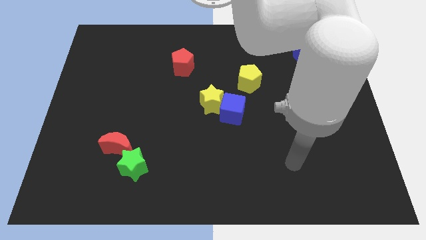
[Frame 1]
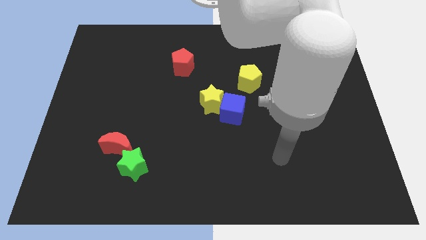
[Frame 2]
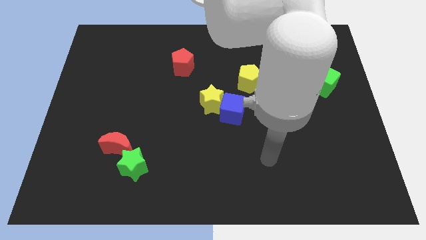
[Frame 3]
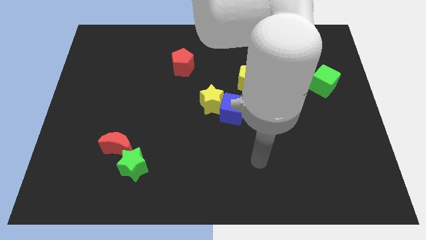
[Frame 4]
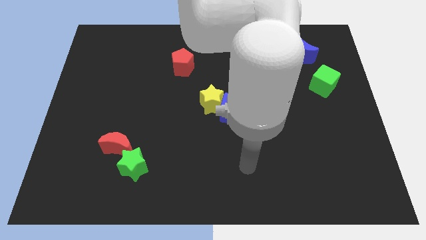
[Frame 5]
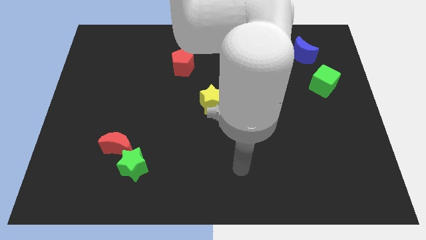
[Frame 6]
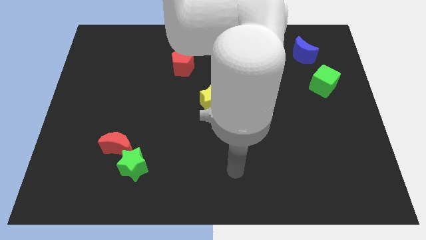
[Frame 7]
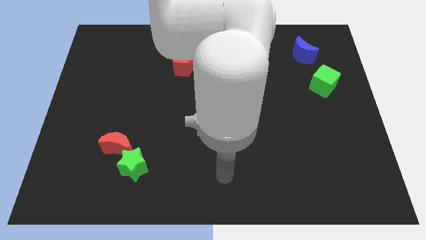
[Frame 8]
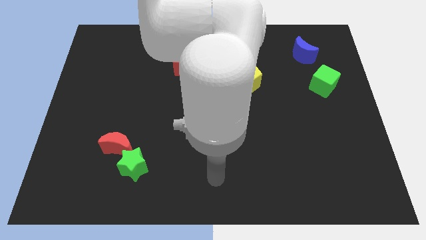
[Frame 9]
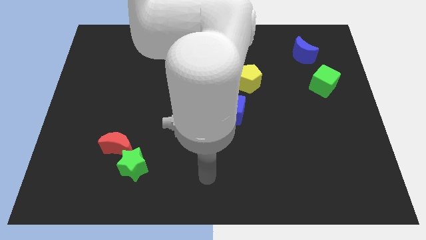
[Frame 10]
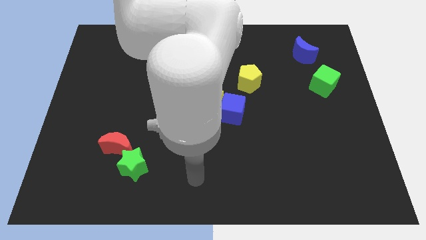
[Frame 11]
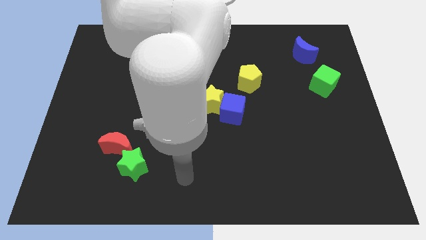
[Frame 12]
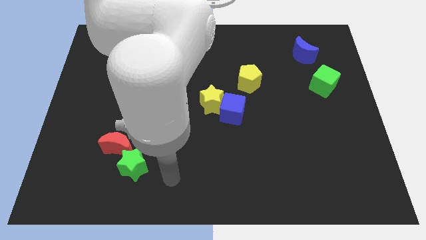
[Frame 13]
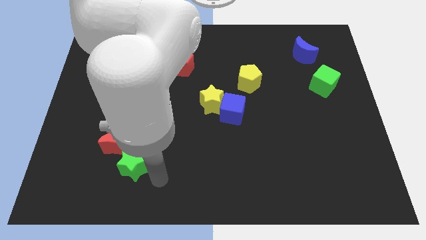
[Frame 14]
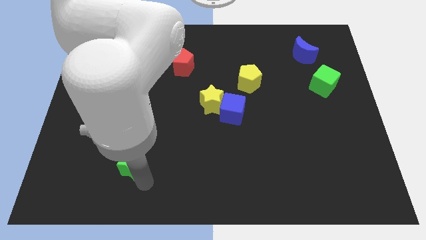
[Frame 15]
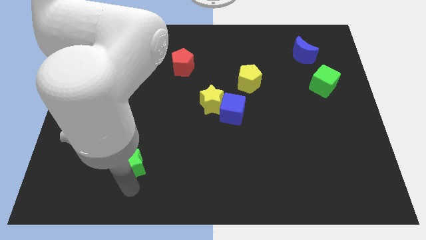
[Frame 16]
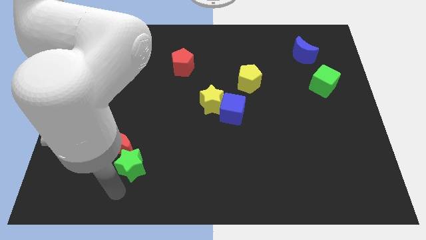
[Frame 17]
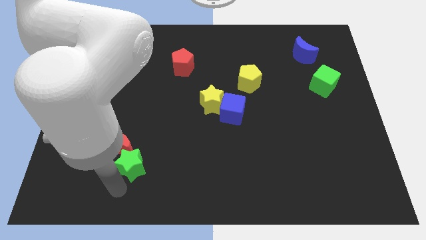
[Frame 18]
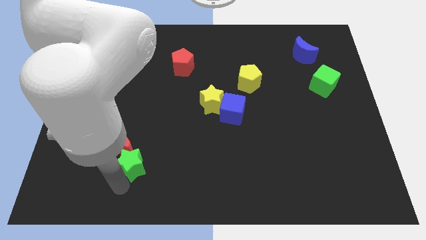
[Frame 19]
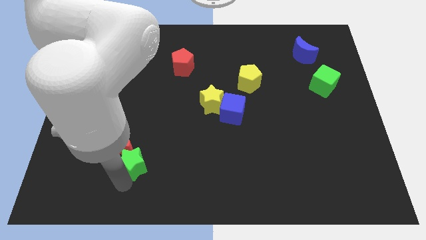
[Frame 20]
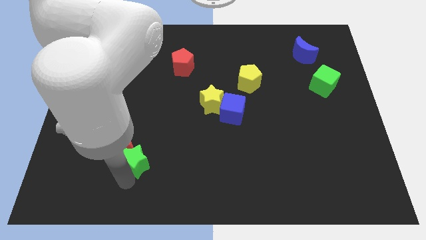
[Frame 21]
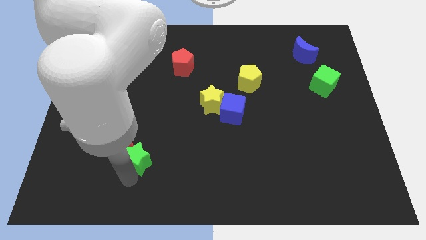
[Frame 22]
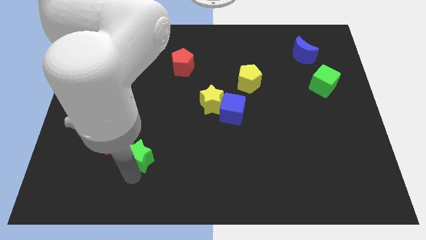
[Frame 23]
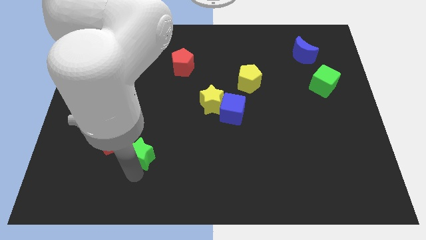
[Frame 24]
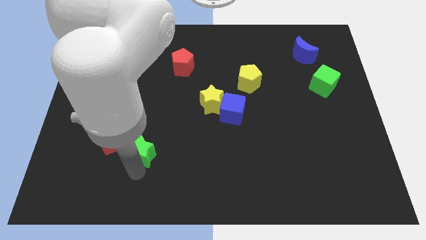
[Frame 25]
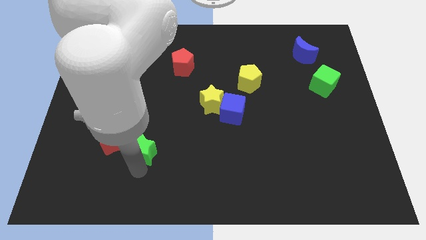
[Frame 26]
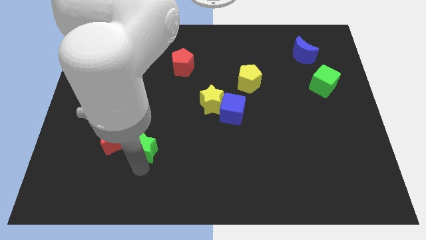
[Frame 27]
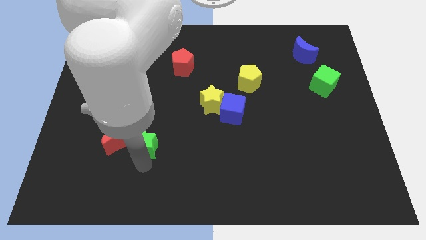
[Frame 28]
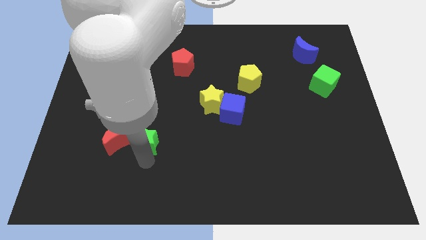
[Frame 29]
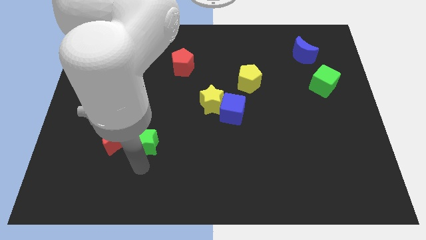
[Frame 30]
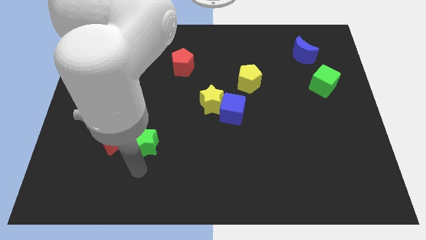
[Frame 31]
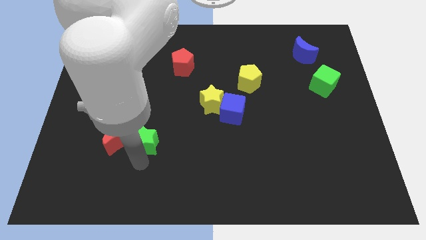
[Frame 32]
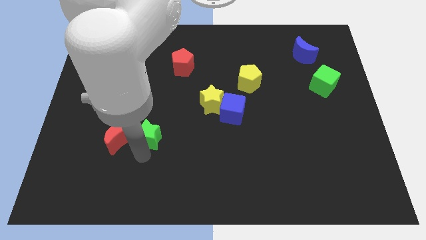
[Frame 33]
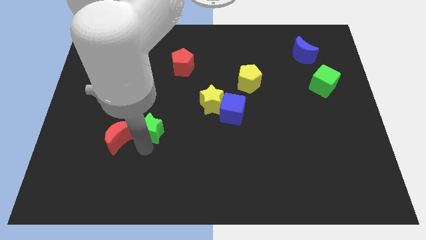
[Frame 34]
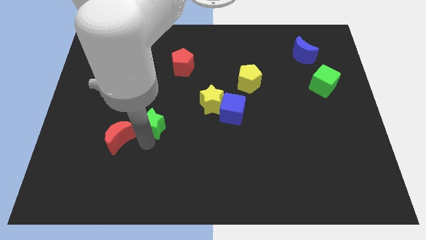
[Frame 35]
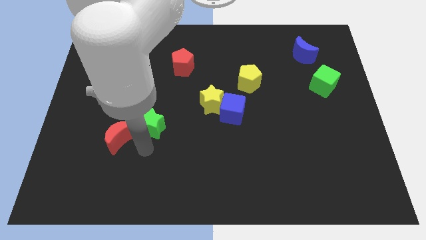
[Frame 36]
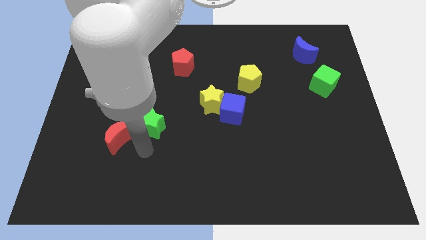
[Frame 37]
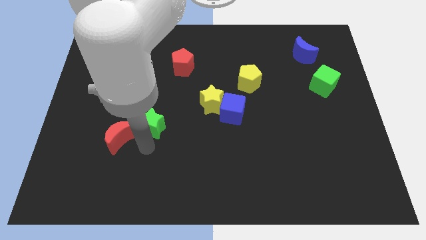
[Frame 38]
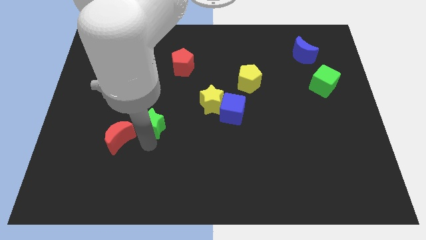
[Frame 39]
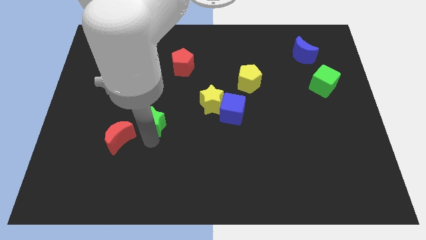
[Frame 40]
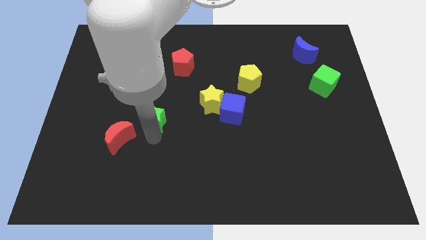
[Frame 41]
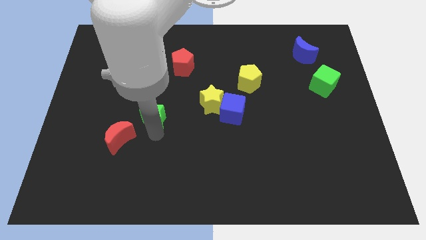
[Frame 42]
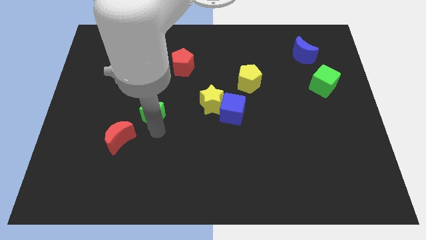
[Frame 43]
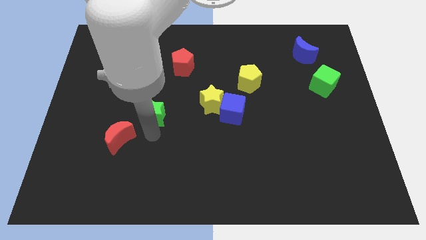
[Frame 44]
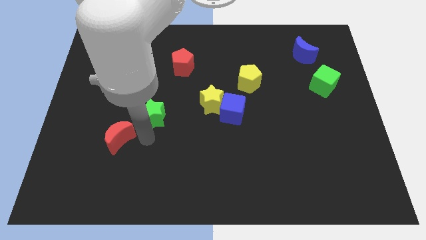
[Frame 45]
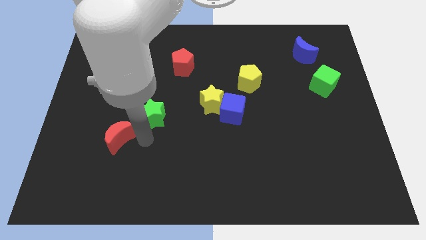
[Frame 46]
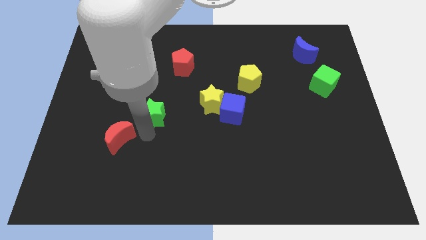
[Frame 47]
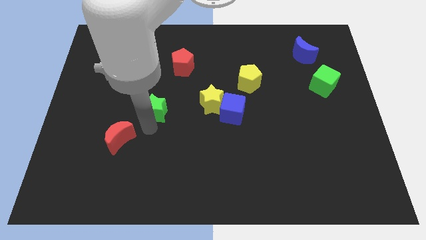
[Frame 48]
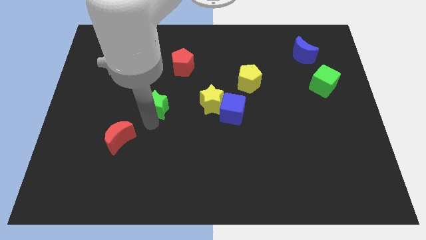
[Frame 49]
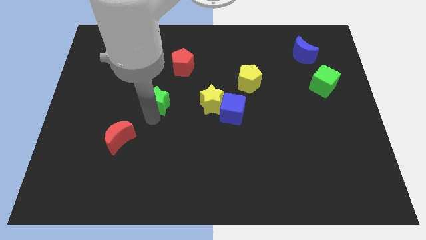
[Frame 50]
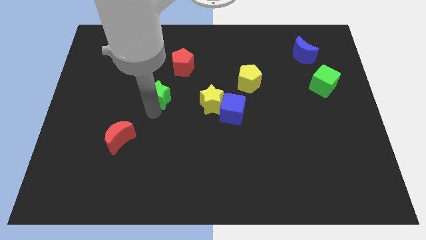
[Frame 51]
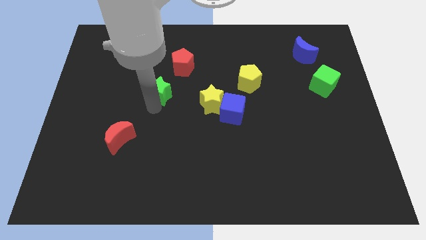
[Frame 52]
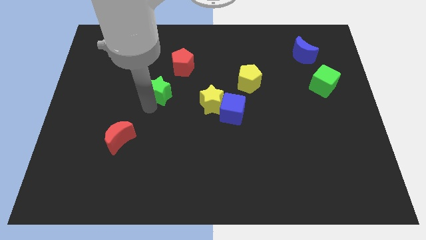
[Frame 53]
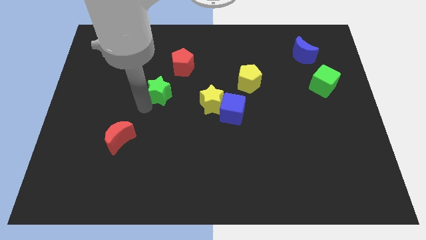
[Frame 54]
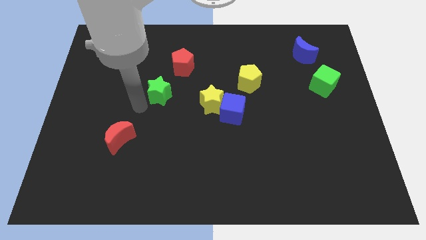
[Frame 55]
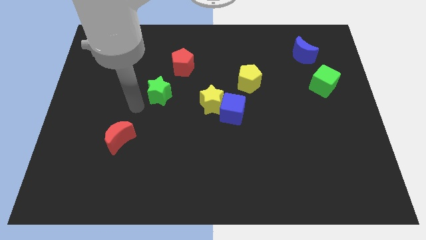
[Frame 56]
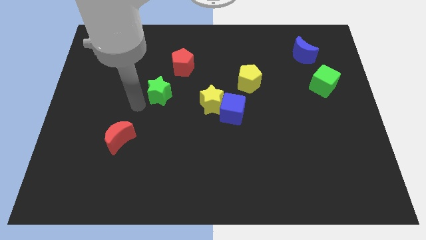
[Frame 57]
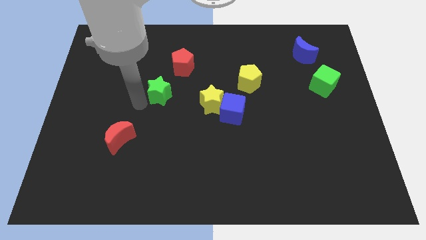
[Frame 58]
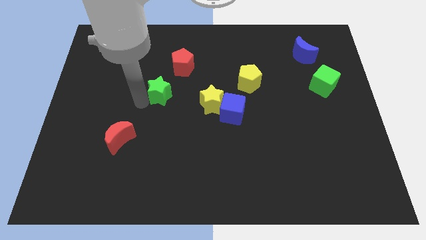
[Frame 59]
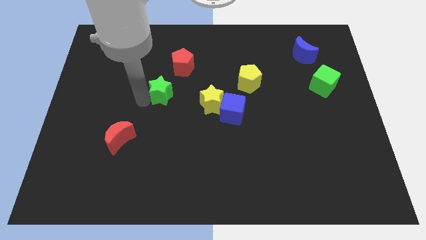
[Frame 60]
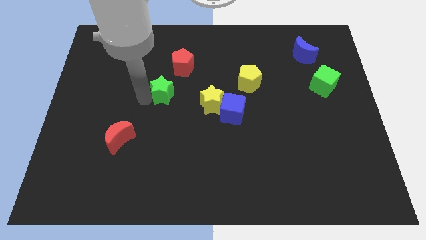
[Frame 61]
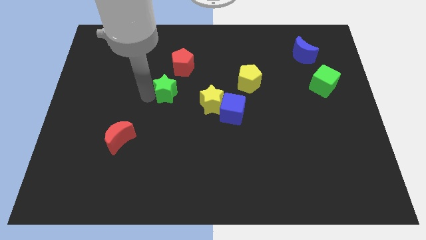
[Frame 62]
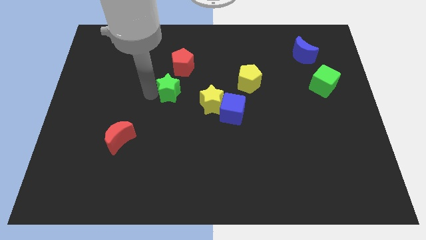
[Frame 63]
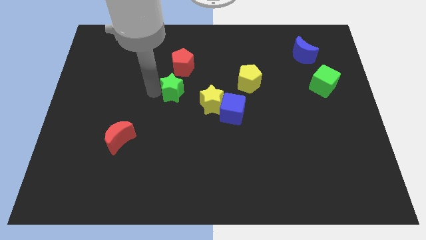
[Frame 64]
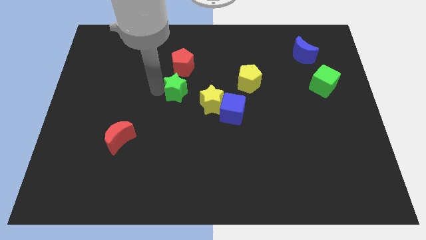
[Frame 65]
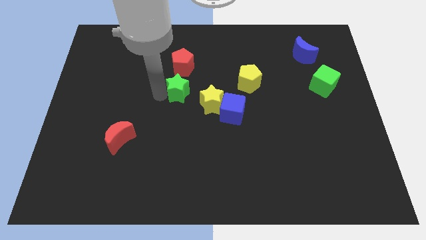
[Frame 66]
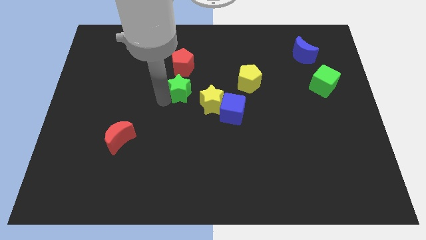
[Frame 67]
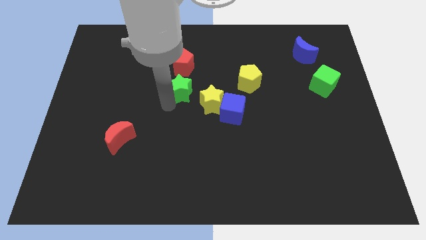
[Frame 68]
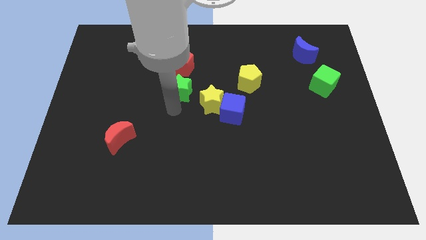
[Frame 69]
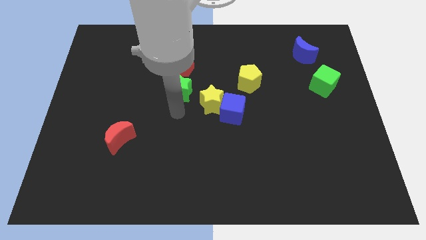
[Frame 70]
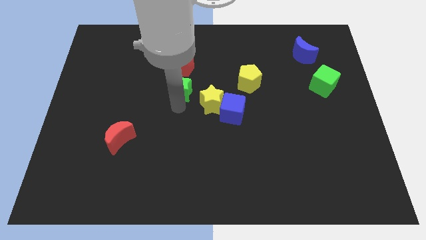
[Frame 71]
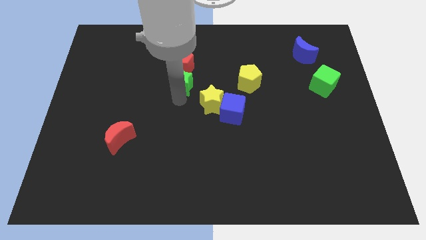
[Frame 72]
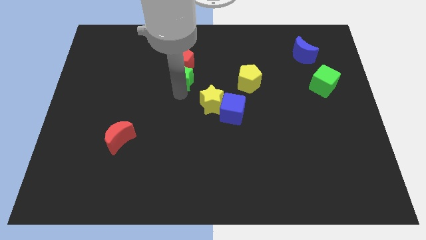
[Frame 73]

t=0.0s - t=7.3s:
put the green star to the red pentagon
